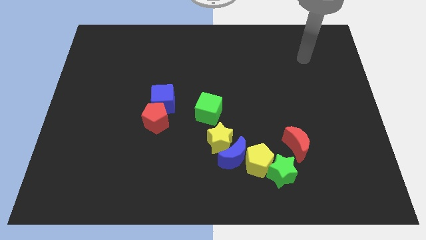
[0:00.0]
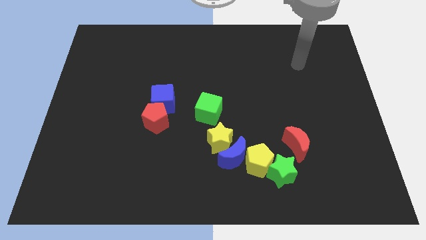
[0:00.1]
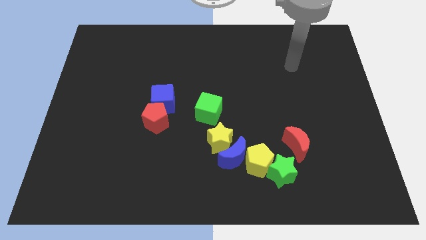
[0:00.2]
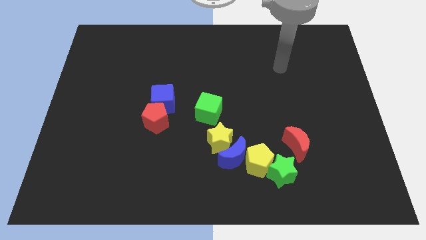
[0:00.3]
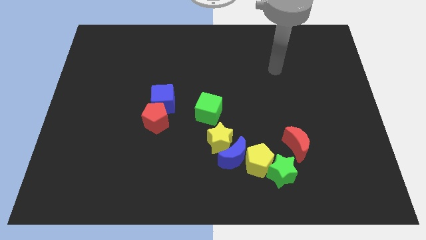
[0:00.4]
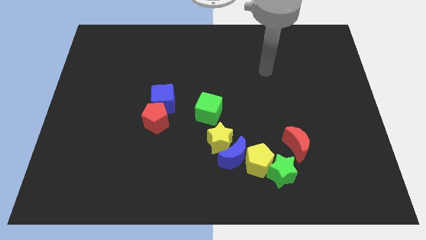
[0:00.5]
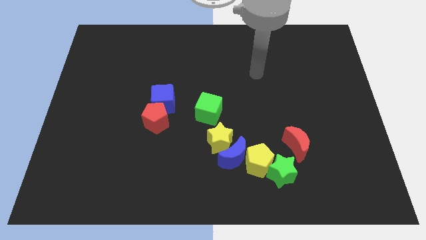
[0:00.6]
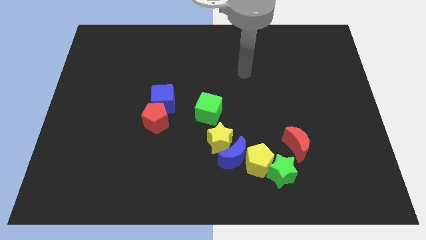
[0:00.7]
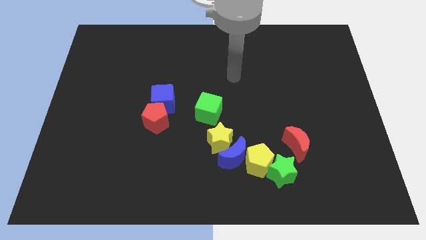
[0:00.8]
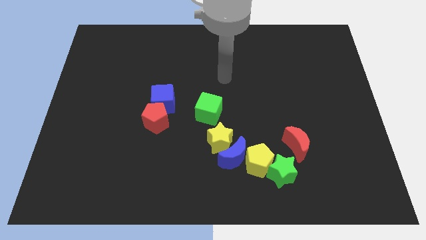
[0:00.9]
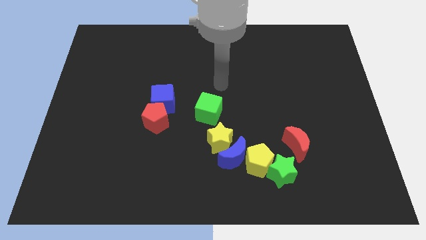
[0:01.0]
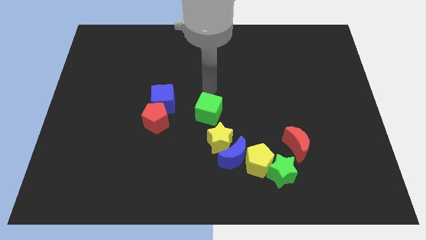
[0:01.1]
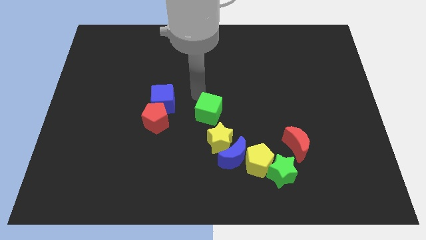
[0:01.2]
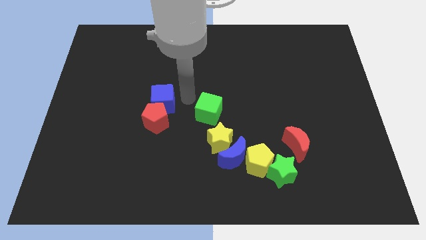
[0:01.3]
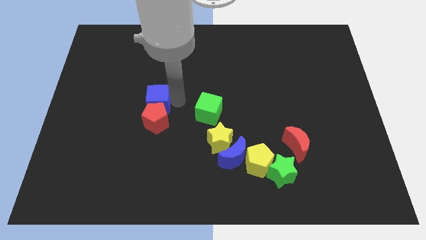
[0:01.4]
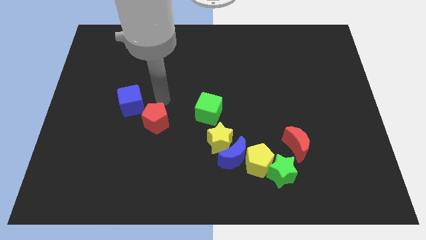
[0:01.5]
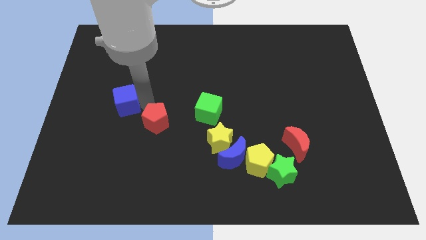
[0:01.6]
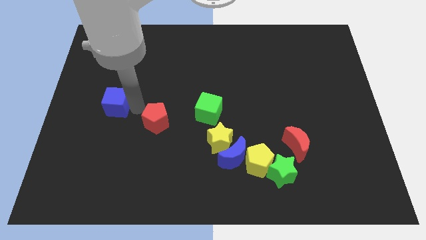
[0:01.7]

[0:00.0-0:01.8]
pull the red pentagon apart from the blue cube

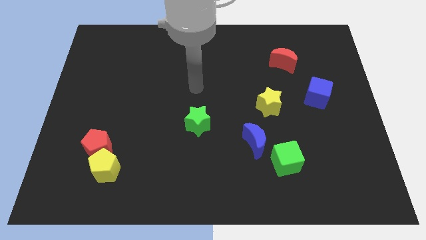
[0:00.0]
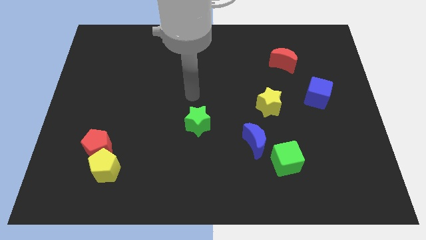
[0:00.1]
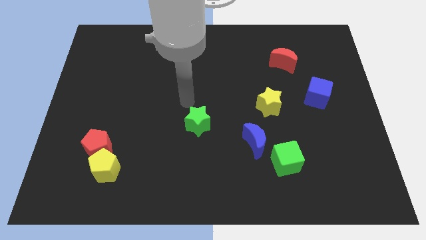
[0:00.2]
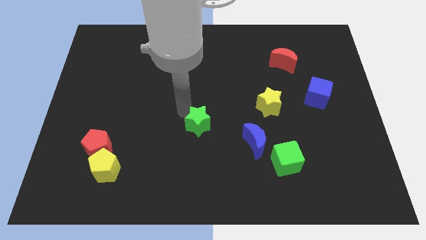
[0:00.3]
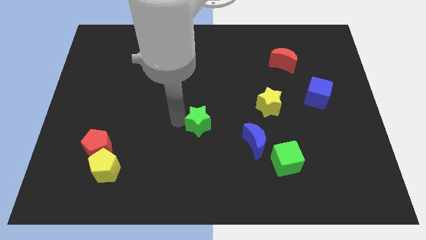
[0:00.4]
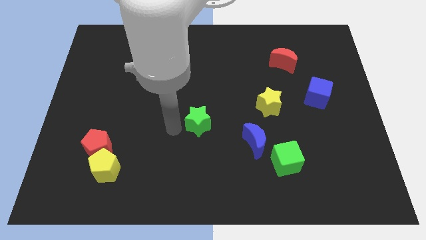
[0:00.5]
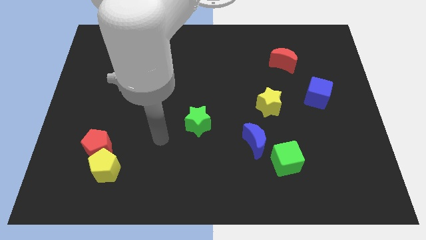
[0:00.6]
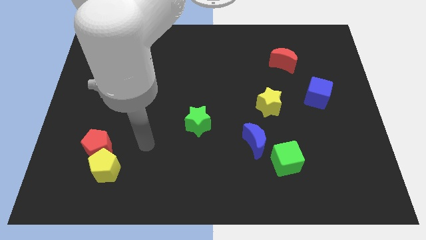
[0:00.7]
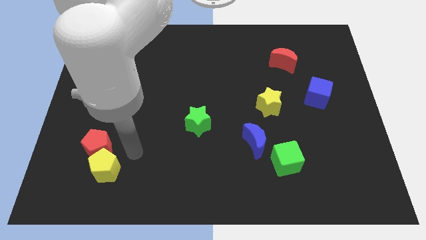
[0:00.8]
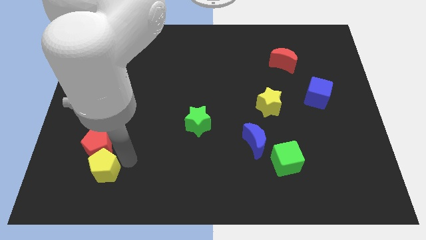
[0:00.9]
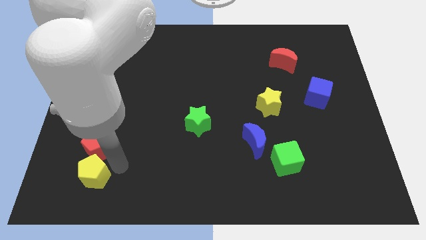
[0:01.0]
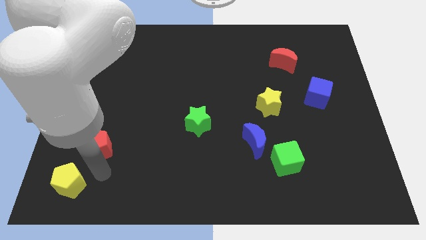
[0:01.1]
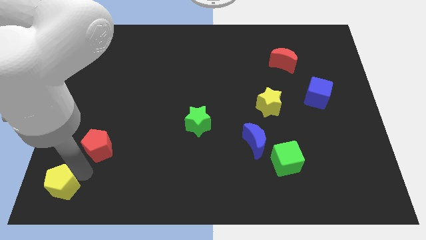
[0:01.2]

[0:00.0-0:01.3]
pull the red pentagon apart from the yellow pentagon

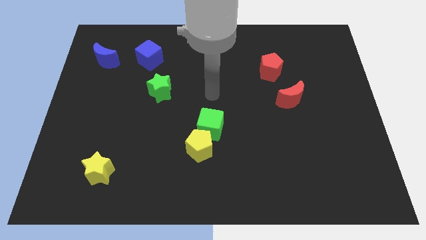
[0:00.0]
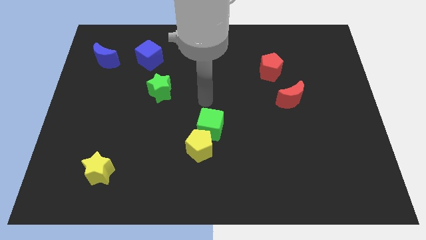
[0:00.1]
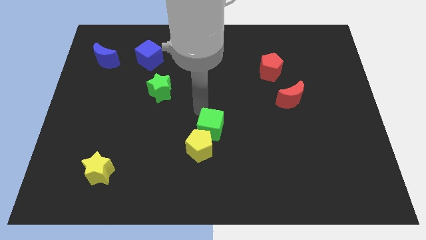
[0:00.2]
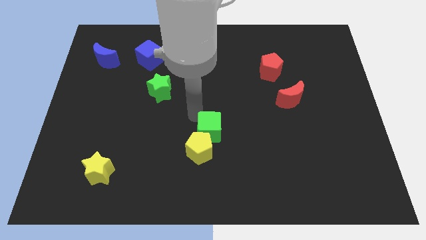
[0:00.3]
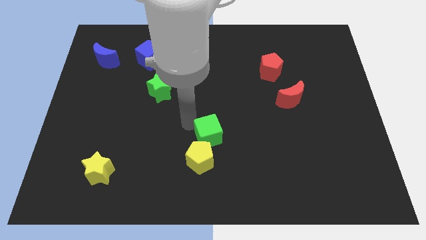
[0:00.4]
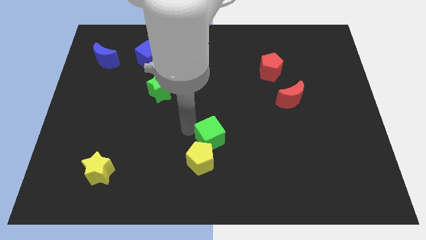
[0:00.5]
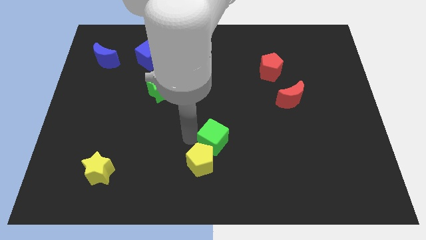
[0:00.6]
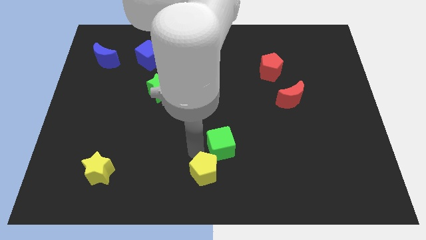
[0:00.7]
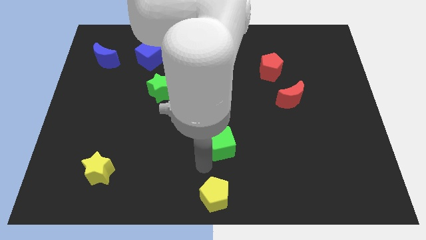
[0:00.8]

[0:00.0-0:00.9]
move the green cube away from the yellow pentagon

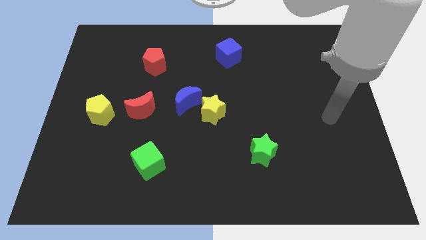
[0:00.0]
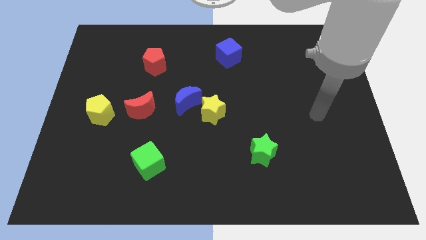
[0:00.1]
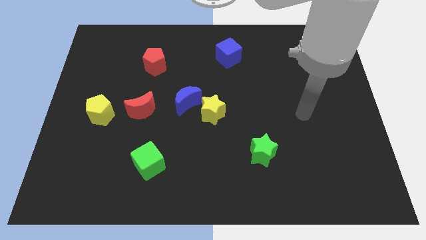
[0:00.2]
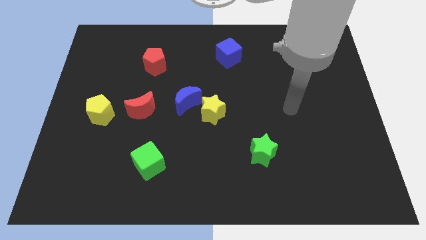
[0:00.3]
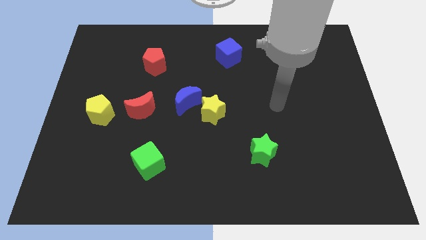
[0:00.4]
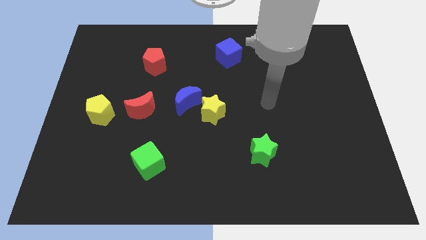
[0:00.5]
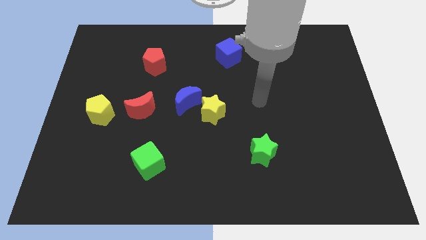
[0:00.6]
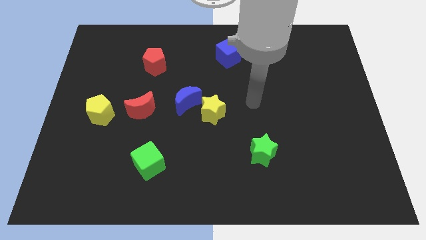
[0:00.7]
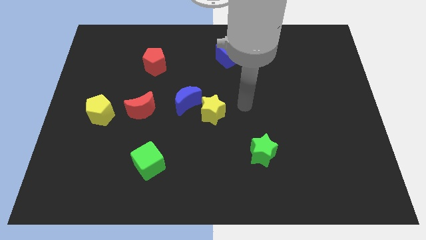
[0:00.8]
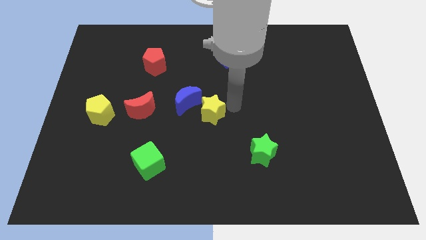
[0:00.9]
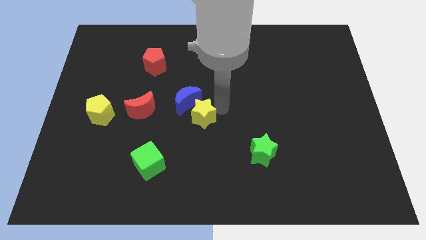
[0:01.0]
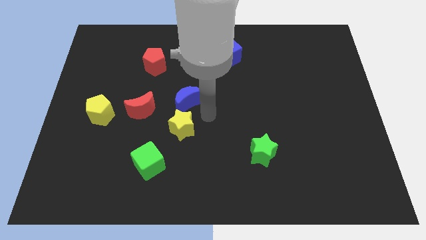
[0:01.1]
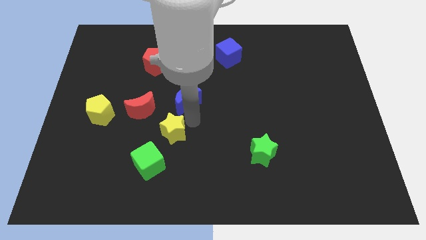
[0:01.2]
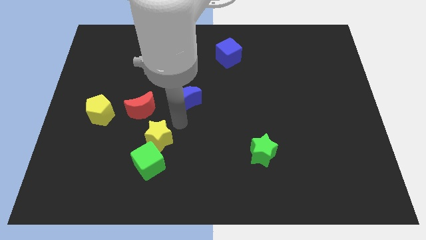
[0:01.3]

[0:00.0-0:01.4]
separate the blue moon from the yellow star

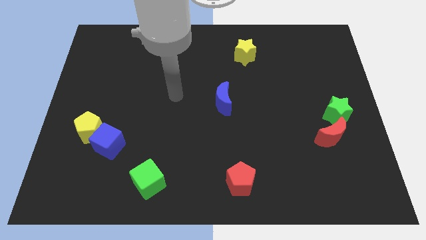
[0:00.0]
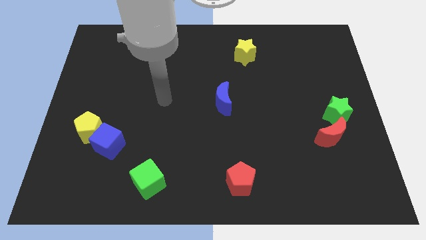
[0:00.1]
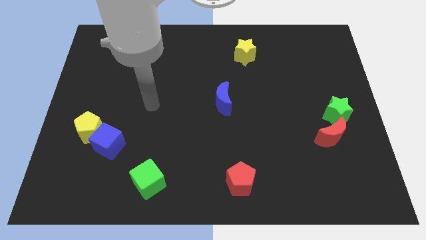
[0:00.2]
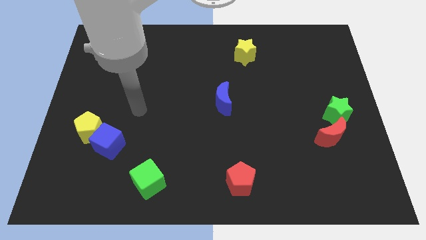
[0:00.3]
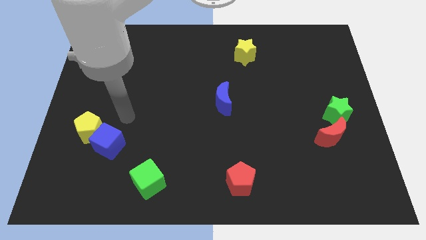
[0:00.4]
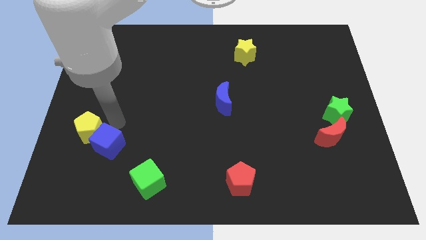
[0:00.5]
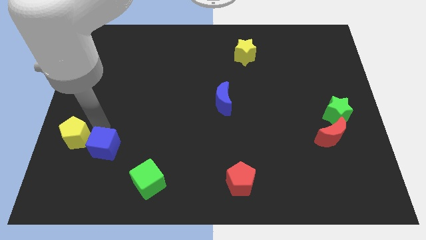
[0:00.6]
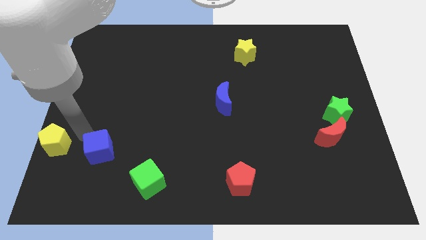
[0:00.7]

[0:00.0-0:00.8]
move the blue cube away from the yellow pentagon

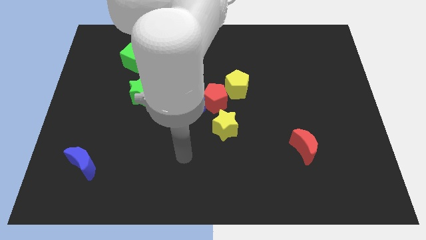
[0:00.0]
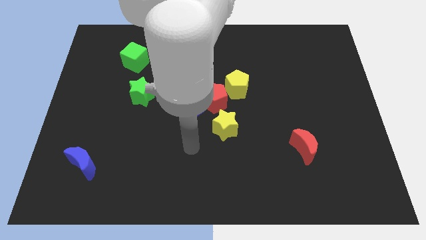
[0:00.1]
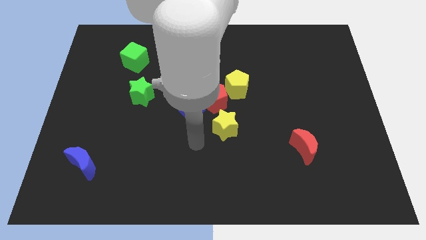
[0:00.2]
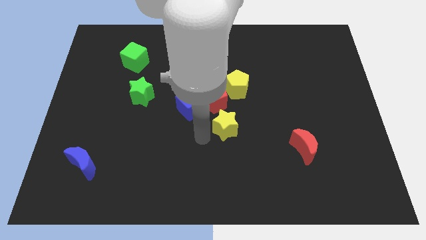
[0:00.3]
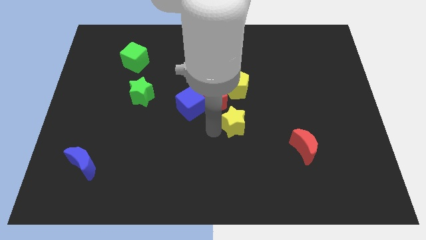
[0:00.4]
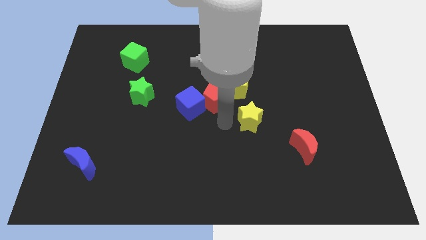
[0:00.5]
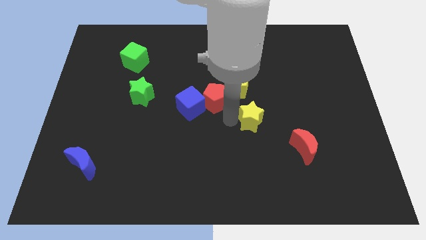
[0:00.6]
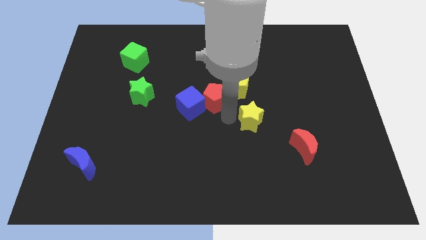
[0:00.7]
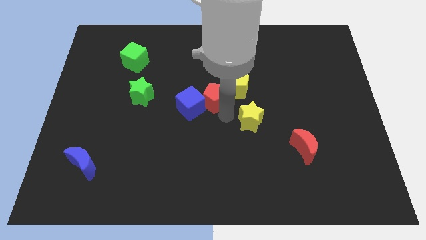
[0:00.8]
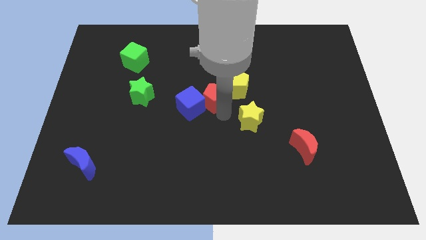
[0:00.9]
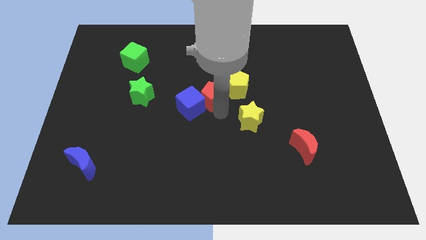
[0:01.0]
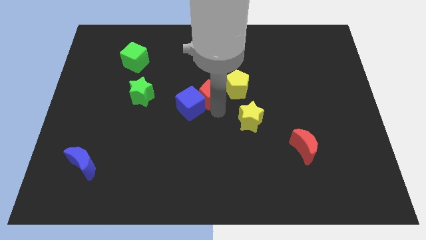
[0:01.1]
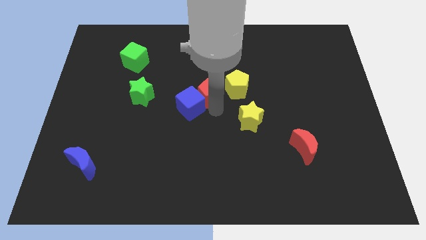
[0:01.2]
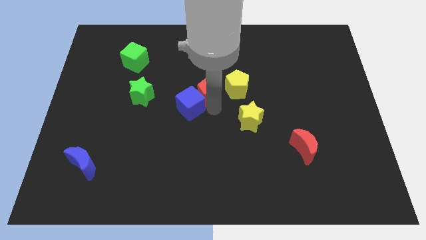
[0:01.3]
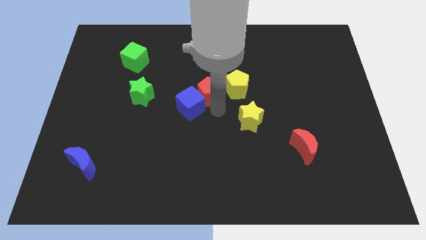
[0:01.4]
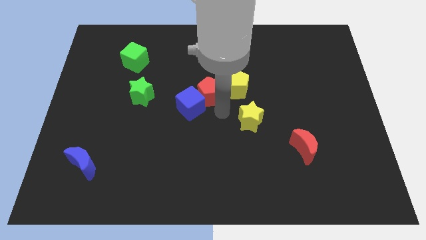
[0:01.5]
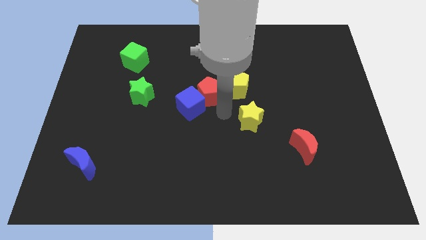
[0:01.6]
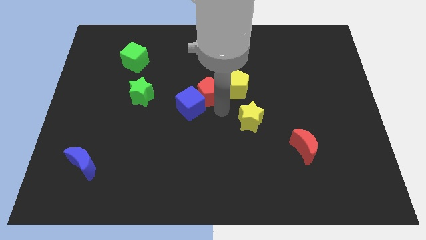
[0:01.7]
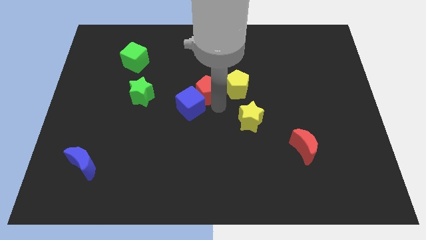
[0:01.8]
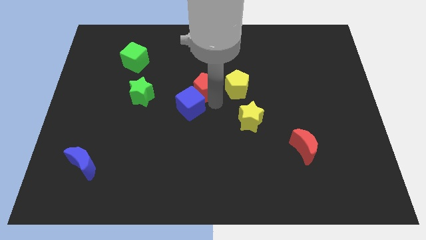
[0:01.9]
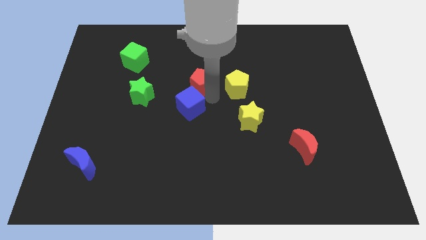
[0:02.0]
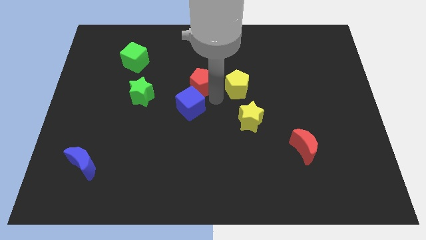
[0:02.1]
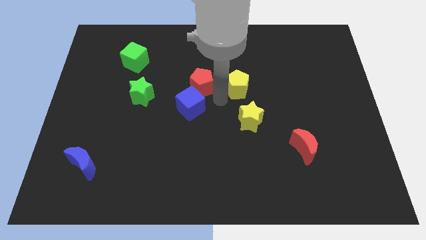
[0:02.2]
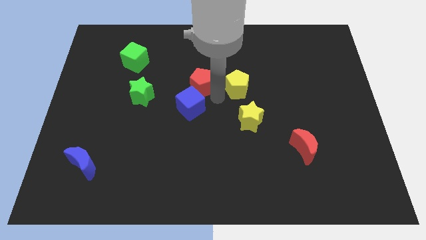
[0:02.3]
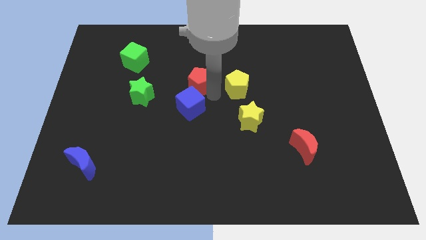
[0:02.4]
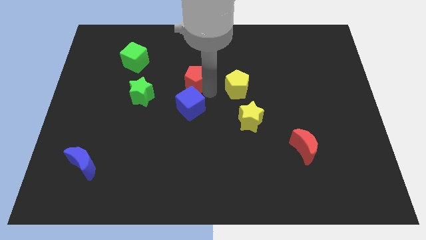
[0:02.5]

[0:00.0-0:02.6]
separate the red pentagon from the blue cube, yellow pentagon, and yellow star

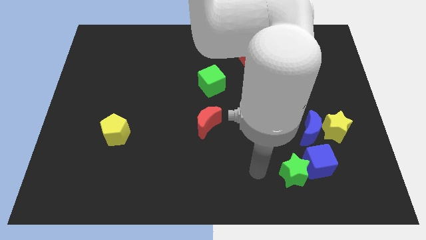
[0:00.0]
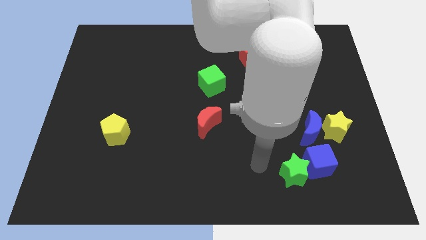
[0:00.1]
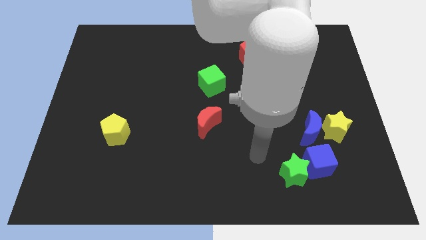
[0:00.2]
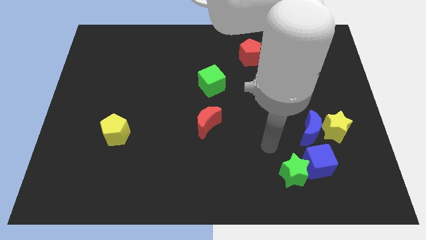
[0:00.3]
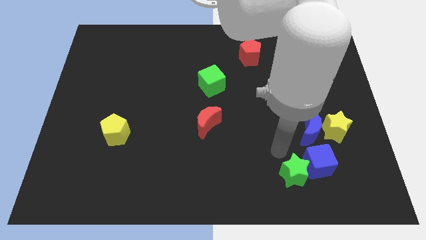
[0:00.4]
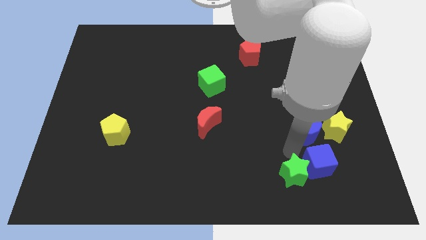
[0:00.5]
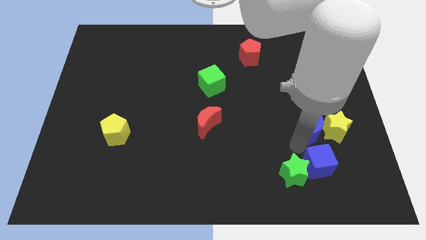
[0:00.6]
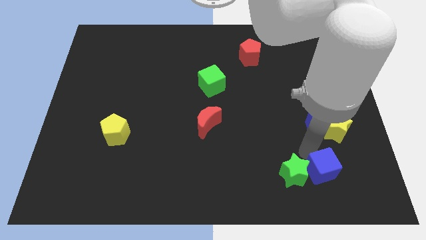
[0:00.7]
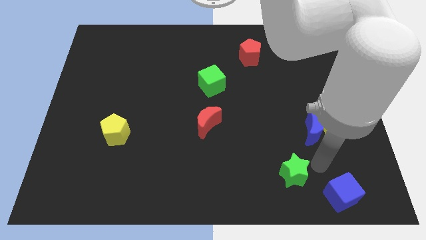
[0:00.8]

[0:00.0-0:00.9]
pull the green star apart from the blue cube
